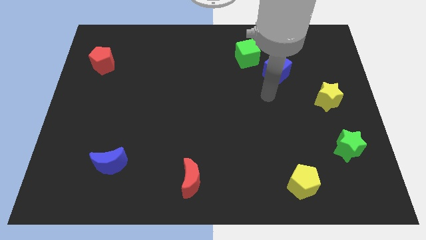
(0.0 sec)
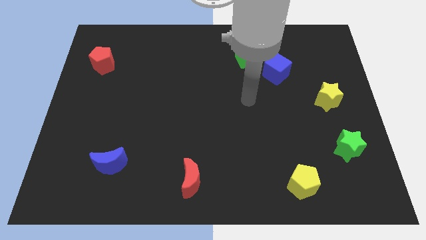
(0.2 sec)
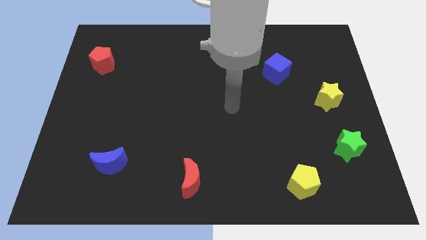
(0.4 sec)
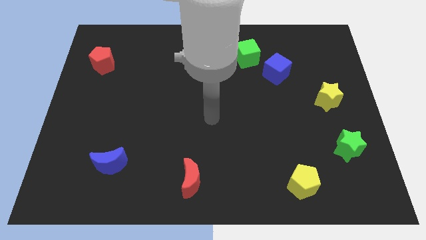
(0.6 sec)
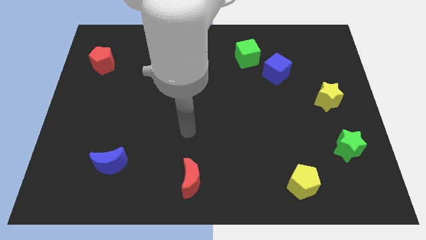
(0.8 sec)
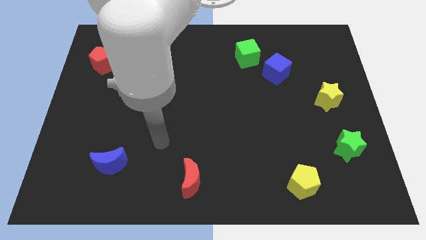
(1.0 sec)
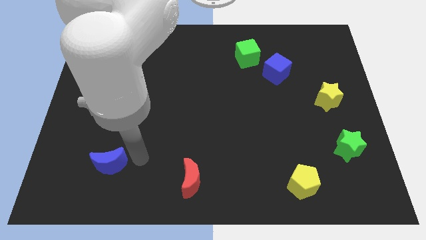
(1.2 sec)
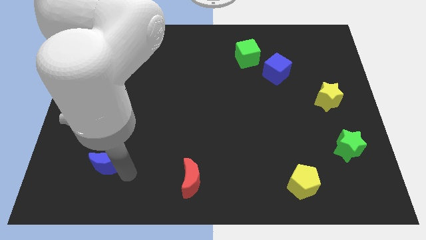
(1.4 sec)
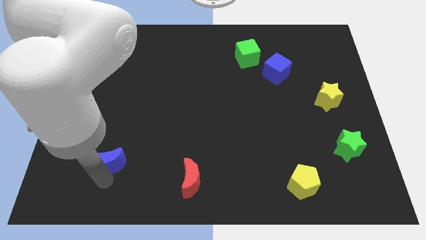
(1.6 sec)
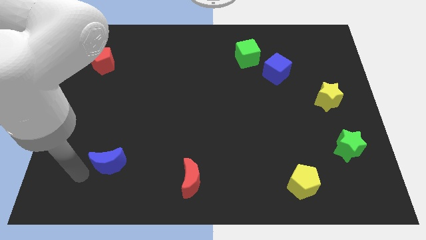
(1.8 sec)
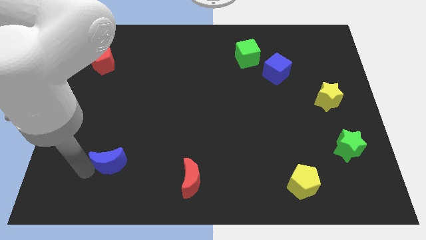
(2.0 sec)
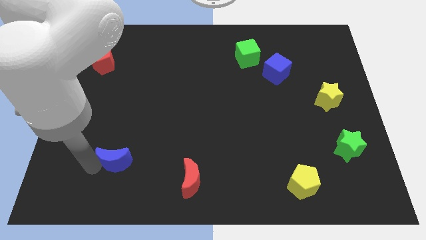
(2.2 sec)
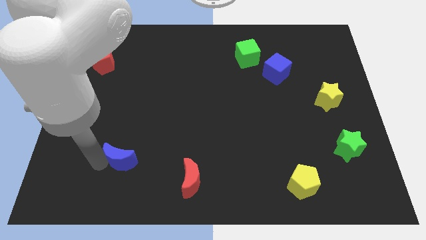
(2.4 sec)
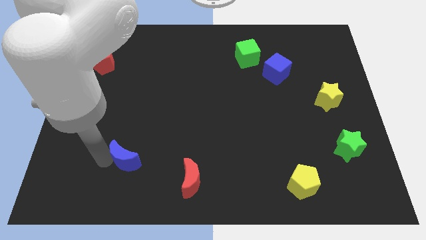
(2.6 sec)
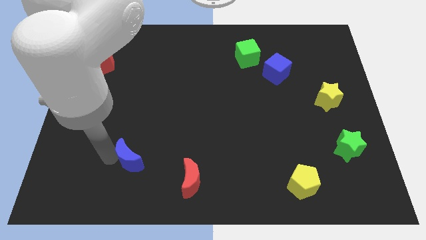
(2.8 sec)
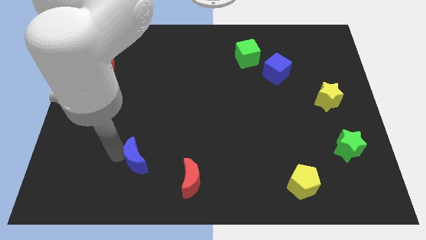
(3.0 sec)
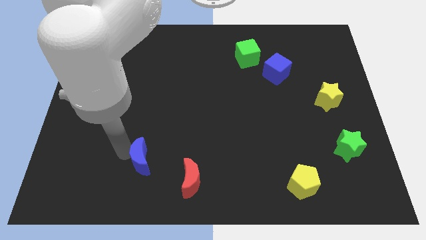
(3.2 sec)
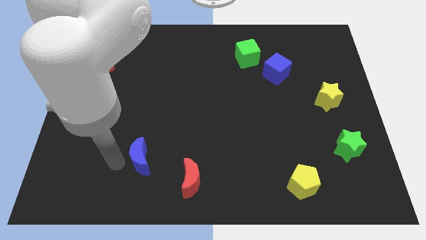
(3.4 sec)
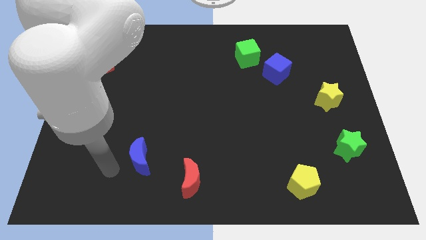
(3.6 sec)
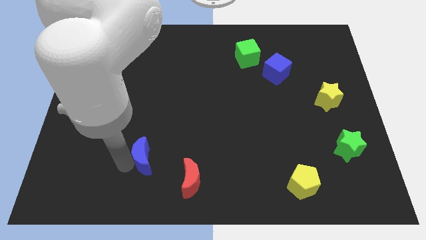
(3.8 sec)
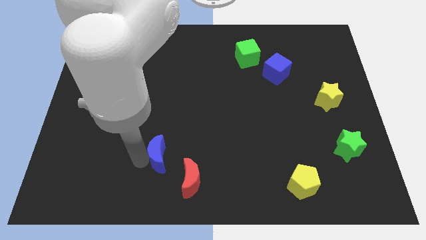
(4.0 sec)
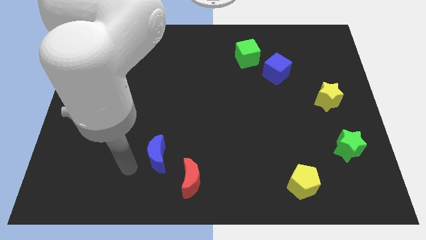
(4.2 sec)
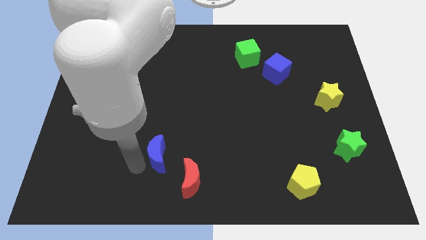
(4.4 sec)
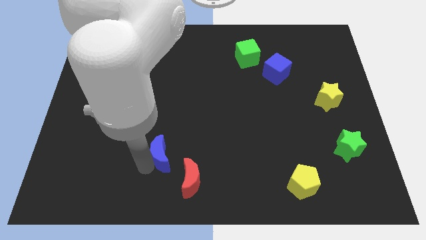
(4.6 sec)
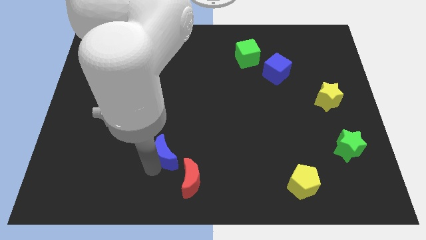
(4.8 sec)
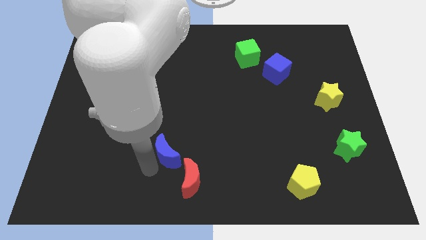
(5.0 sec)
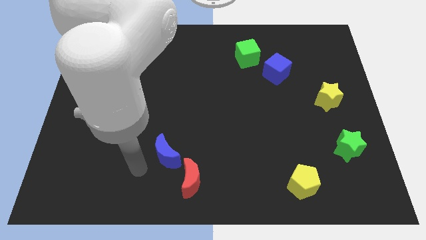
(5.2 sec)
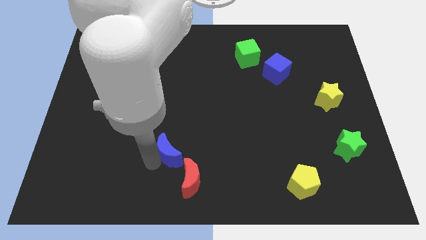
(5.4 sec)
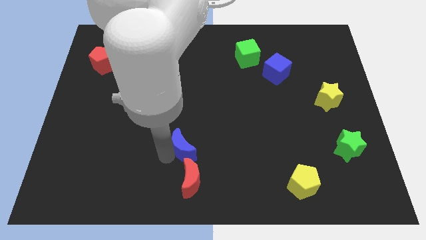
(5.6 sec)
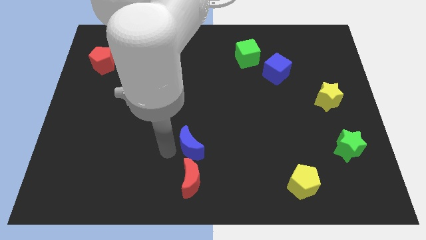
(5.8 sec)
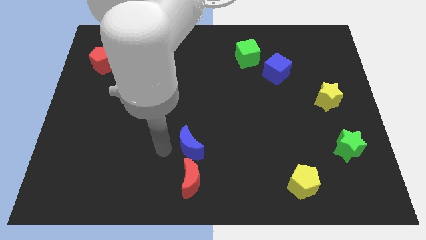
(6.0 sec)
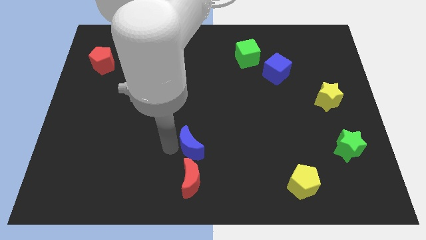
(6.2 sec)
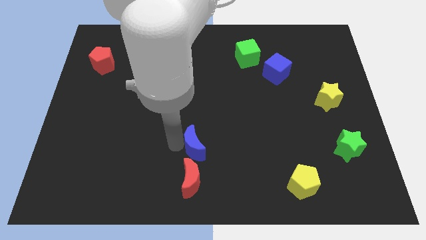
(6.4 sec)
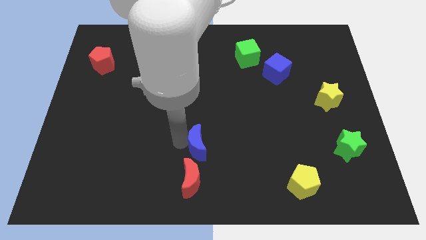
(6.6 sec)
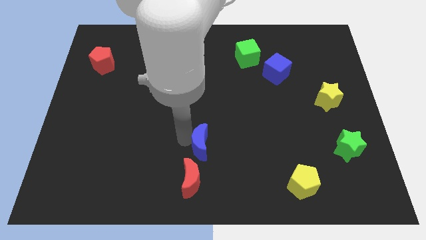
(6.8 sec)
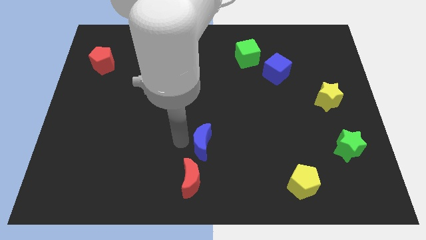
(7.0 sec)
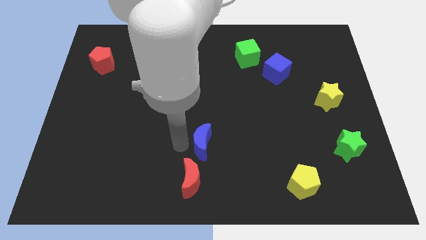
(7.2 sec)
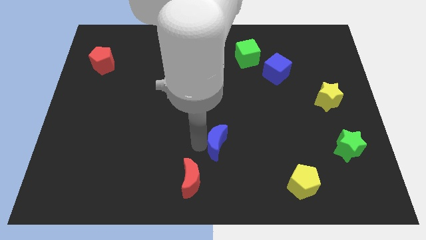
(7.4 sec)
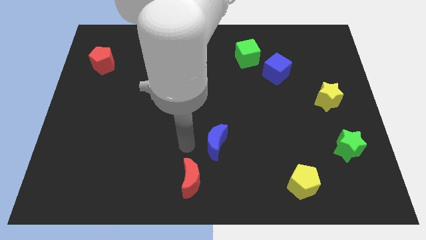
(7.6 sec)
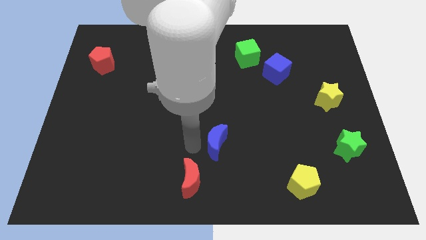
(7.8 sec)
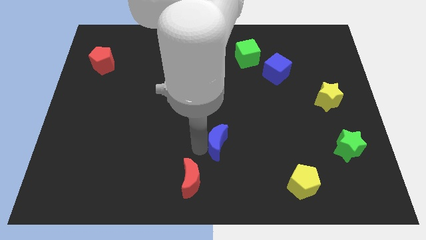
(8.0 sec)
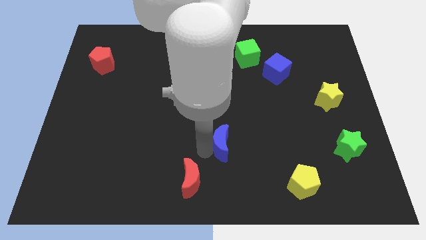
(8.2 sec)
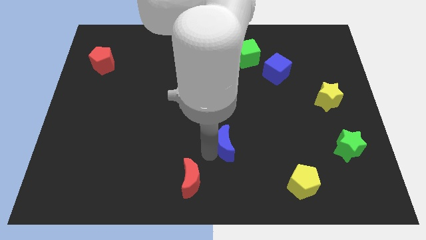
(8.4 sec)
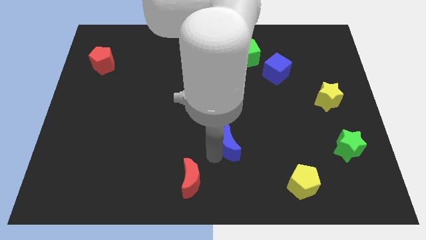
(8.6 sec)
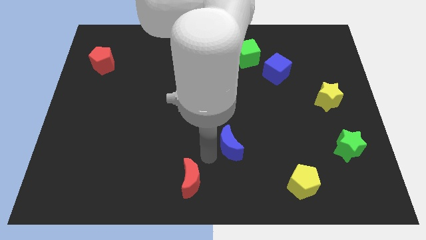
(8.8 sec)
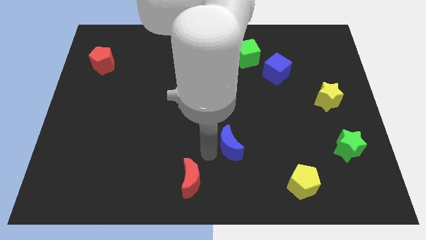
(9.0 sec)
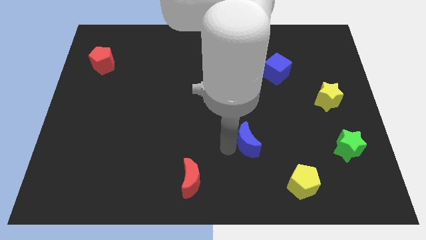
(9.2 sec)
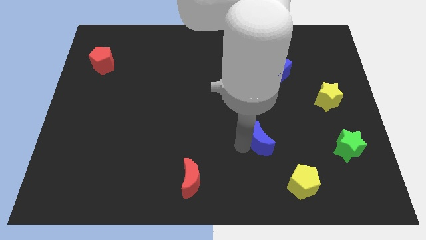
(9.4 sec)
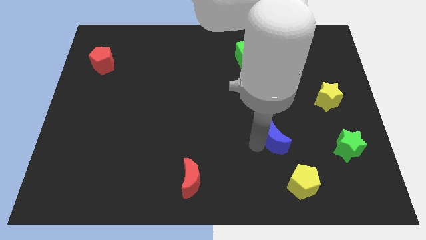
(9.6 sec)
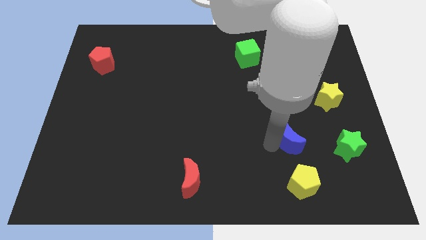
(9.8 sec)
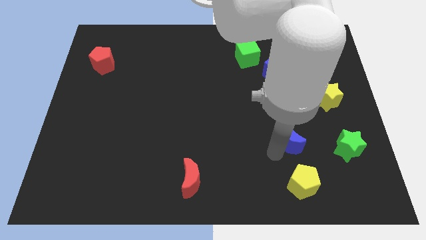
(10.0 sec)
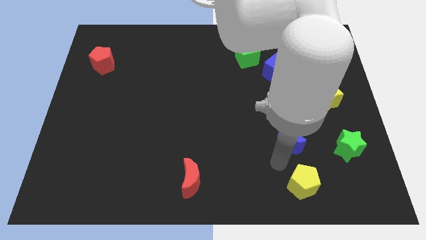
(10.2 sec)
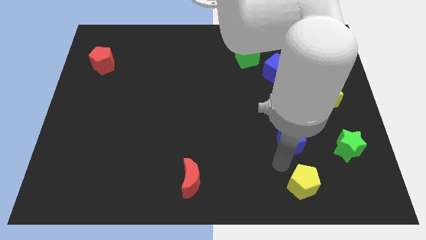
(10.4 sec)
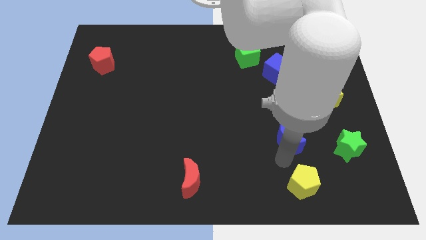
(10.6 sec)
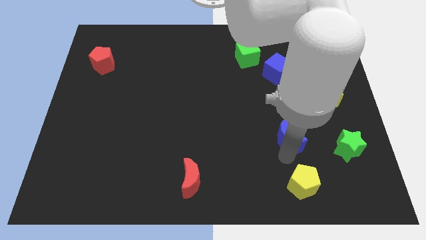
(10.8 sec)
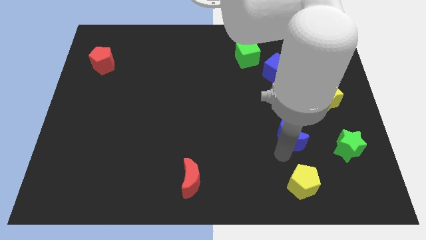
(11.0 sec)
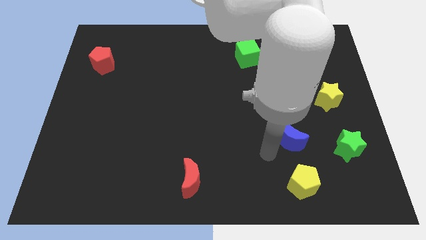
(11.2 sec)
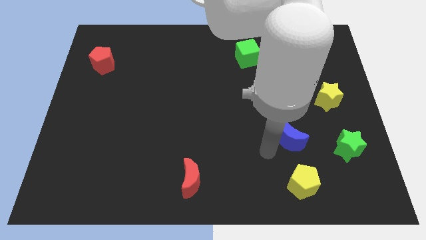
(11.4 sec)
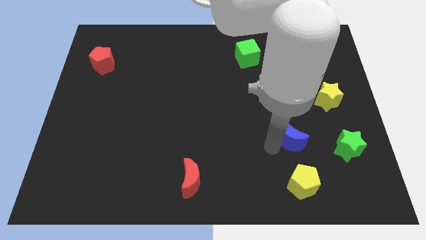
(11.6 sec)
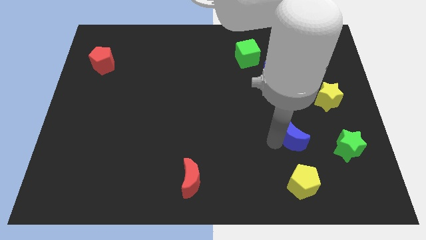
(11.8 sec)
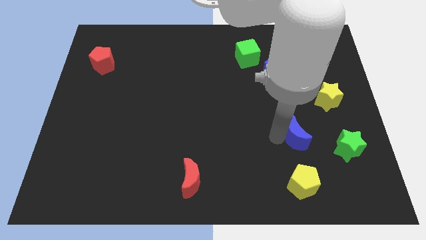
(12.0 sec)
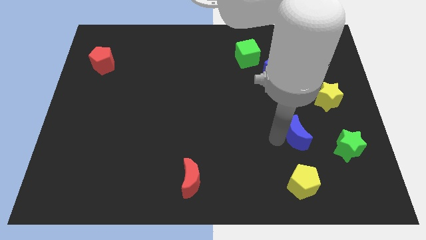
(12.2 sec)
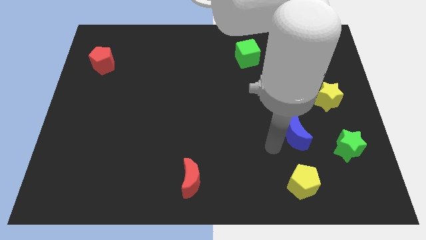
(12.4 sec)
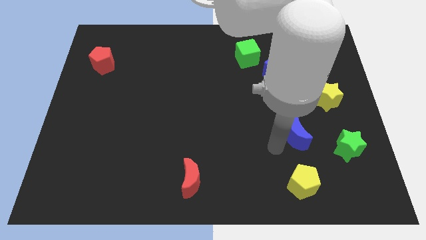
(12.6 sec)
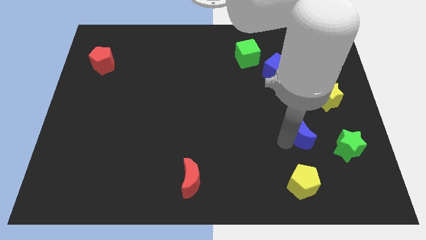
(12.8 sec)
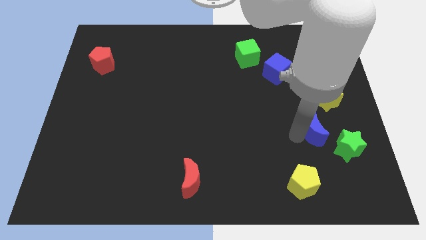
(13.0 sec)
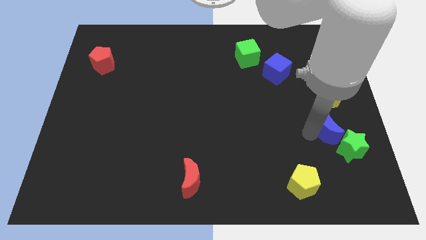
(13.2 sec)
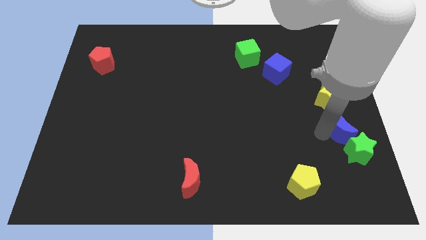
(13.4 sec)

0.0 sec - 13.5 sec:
push the blue moon to the center right

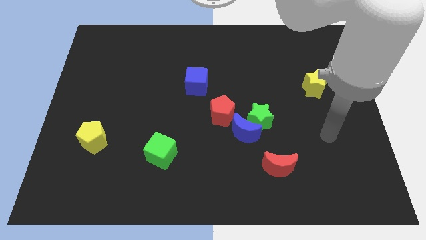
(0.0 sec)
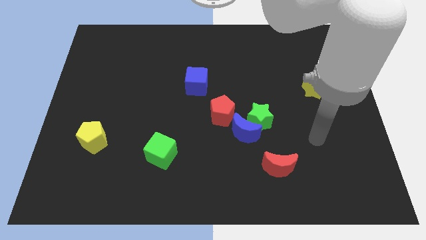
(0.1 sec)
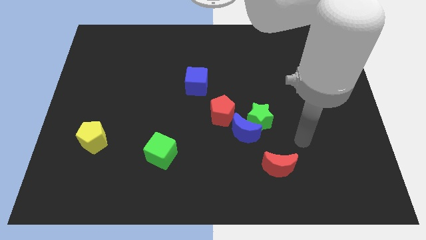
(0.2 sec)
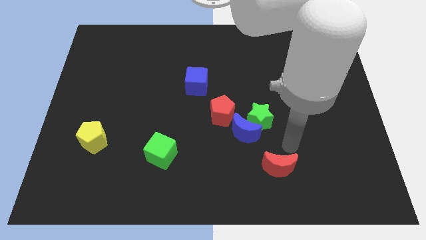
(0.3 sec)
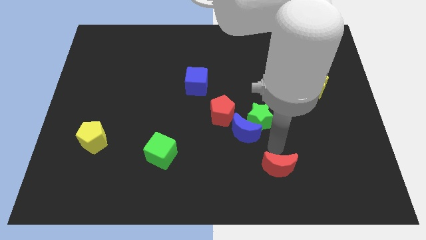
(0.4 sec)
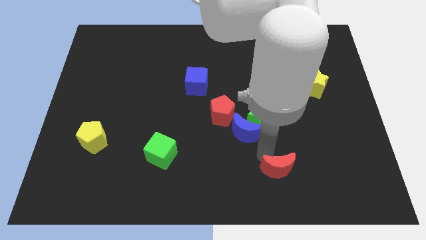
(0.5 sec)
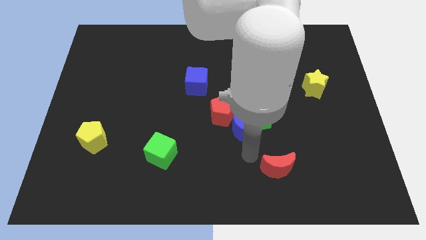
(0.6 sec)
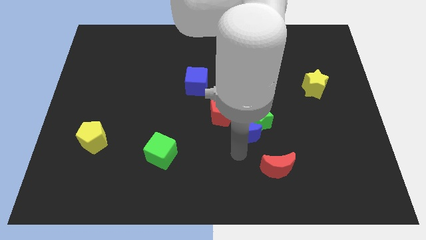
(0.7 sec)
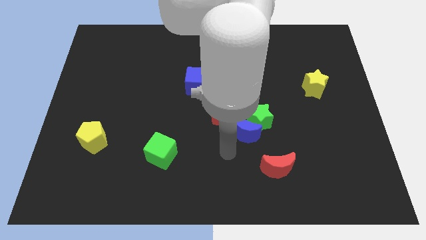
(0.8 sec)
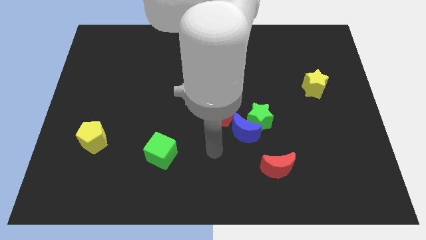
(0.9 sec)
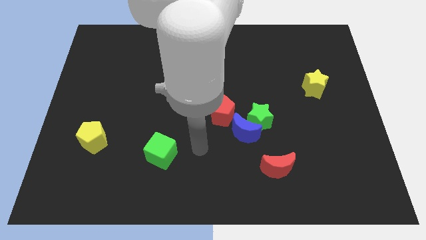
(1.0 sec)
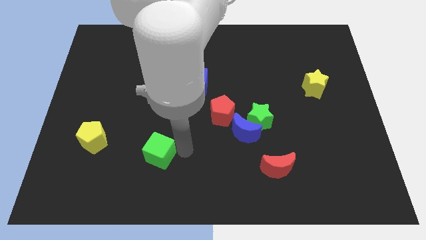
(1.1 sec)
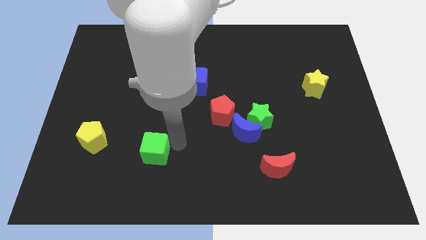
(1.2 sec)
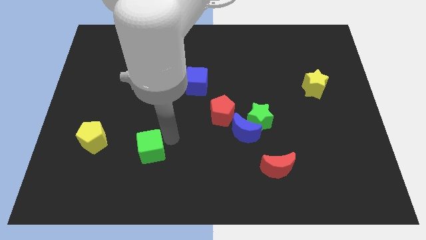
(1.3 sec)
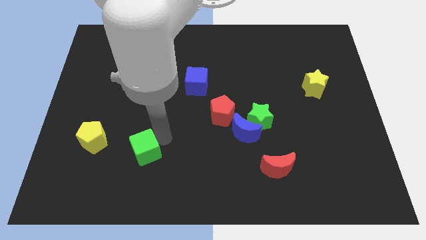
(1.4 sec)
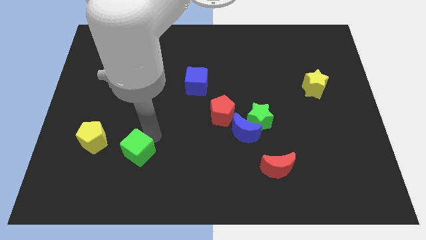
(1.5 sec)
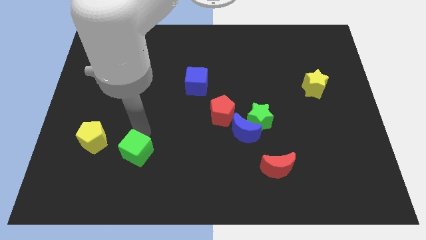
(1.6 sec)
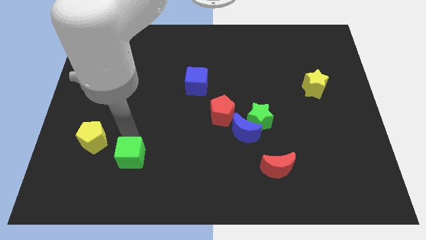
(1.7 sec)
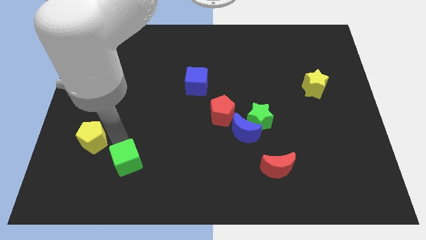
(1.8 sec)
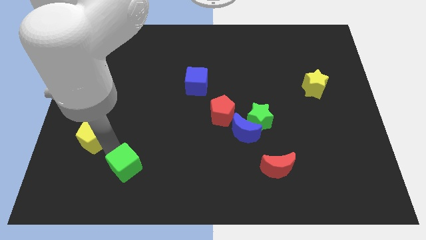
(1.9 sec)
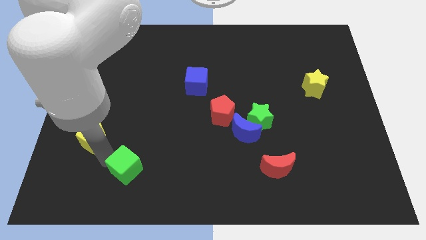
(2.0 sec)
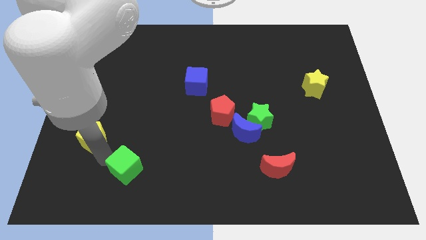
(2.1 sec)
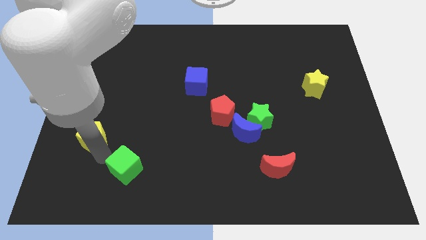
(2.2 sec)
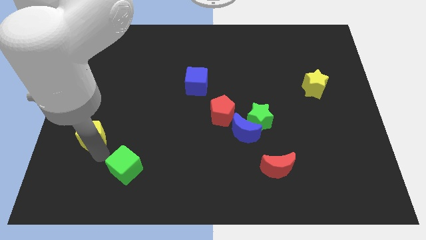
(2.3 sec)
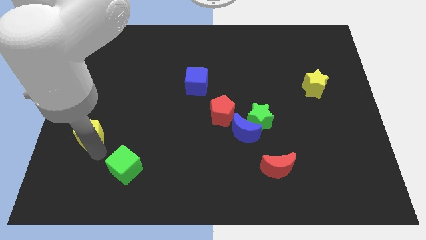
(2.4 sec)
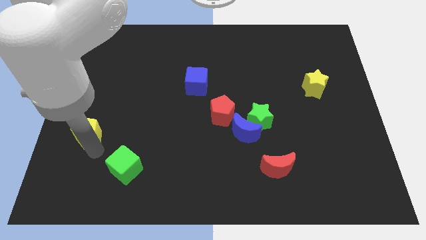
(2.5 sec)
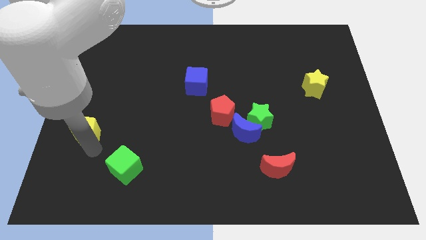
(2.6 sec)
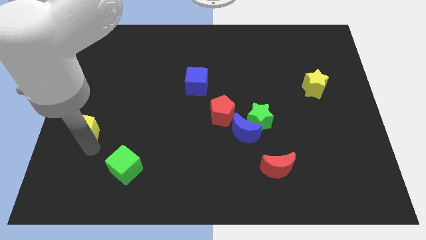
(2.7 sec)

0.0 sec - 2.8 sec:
slide the yellow pentagon to the center left
